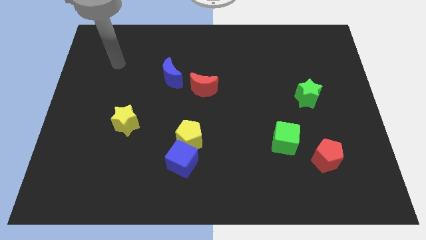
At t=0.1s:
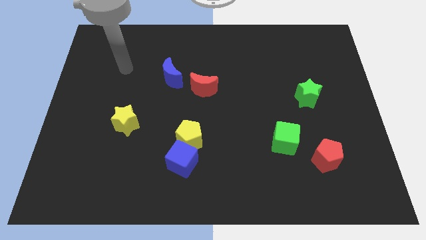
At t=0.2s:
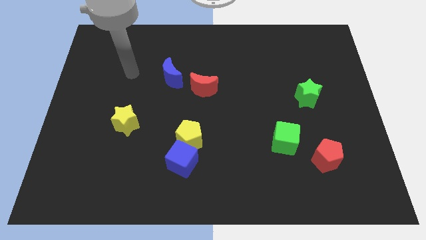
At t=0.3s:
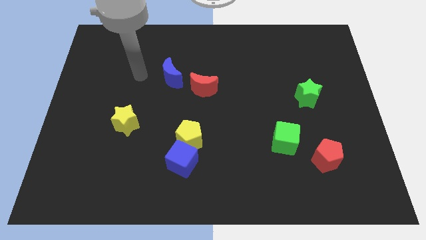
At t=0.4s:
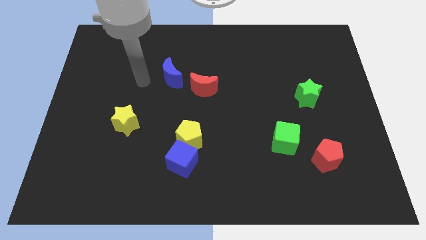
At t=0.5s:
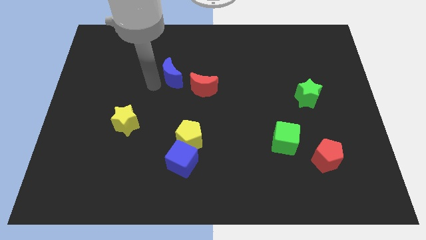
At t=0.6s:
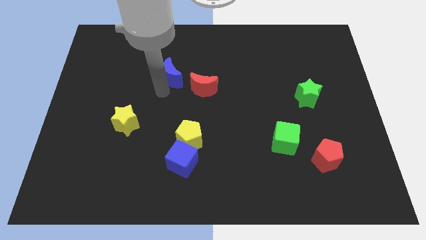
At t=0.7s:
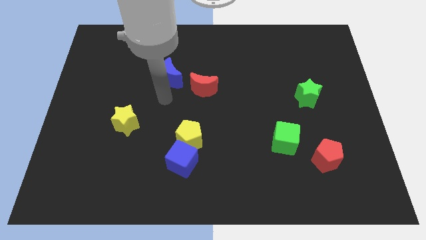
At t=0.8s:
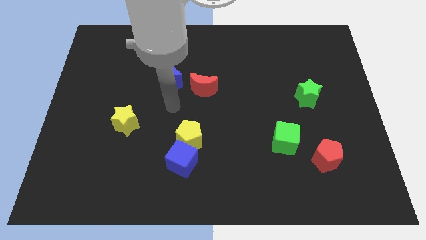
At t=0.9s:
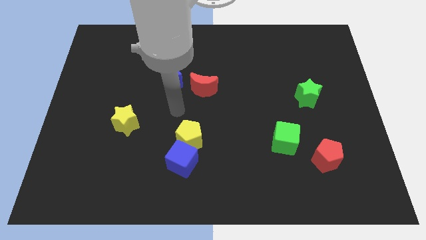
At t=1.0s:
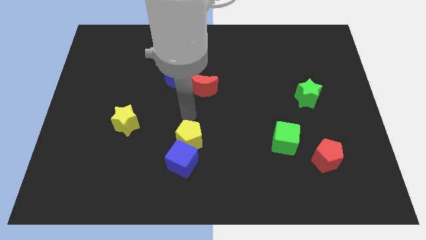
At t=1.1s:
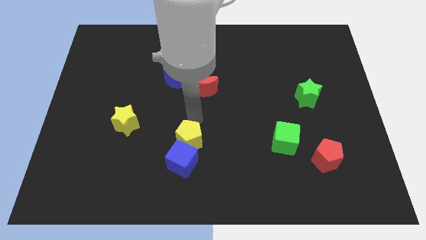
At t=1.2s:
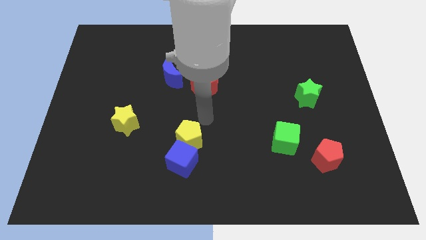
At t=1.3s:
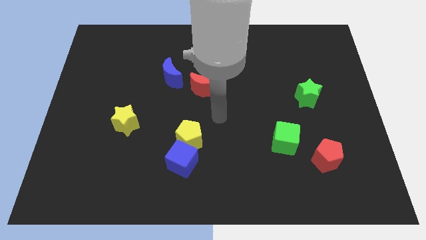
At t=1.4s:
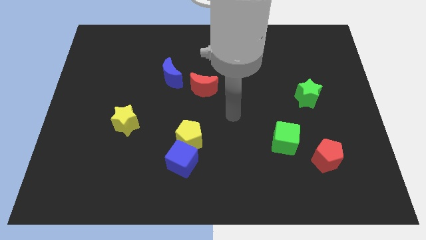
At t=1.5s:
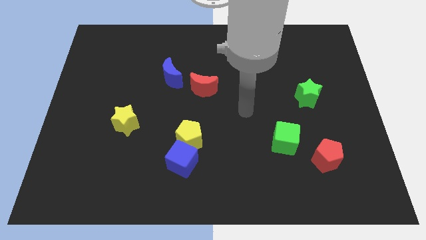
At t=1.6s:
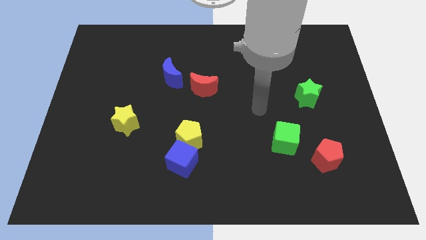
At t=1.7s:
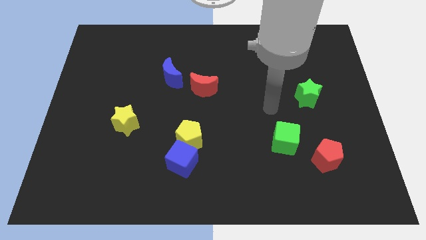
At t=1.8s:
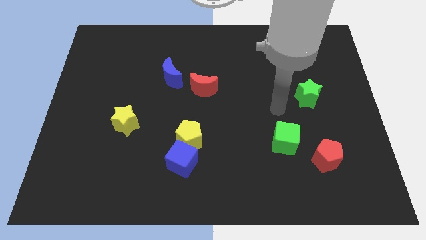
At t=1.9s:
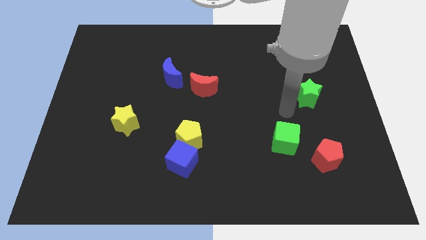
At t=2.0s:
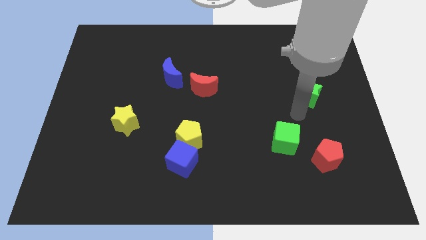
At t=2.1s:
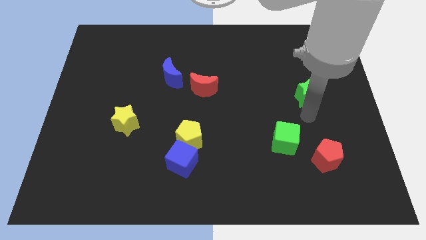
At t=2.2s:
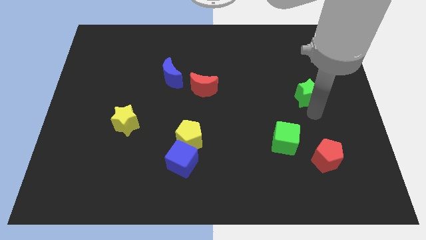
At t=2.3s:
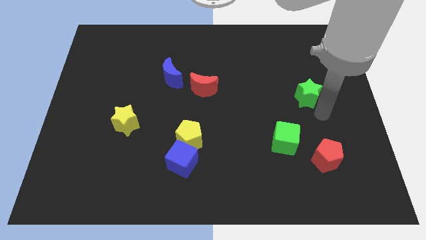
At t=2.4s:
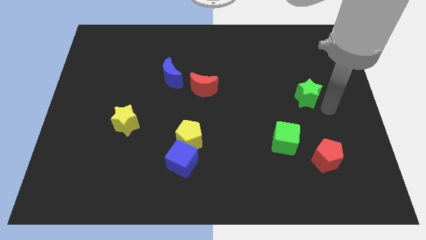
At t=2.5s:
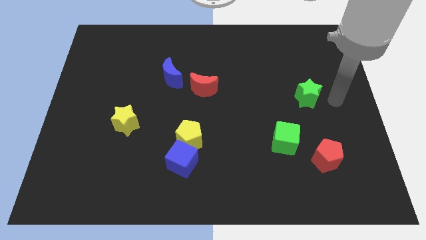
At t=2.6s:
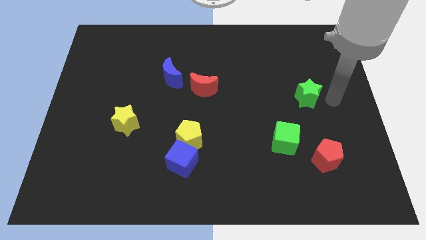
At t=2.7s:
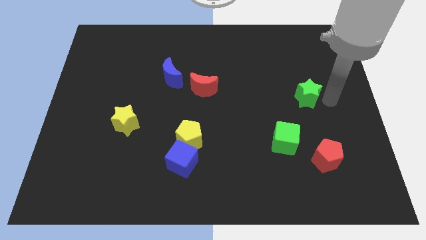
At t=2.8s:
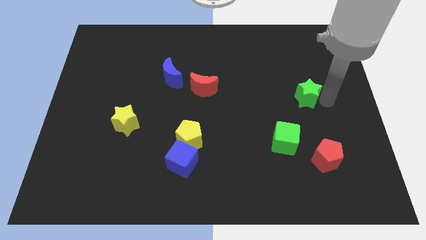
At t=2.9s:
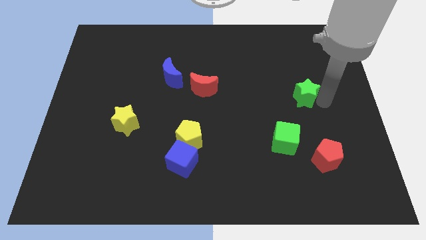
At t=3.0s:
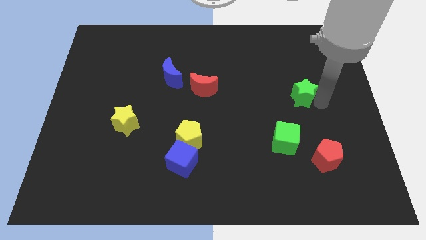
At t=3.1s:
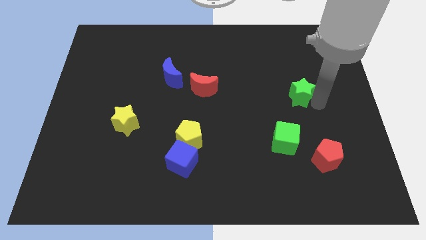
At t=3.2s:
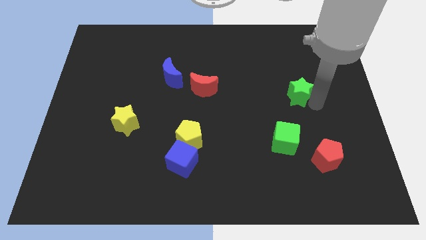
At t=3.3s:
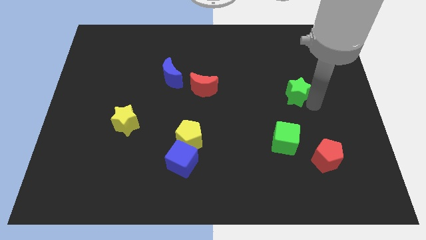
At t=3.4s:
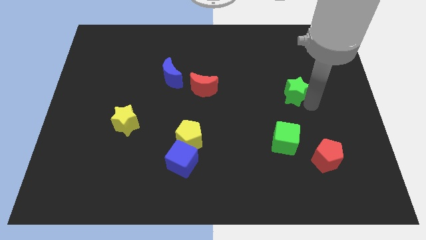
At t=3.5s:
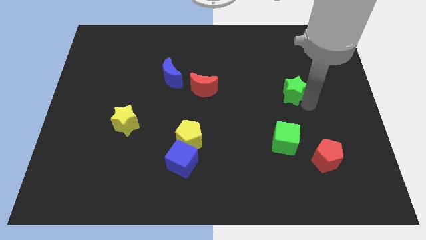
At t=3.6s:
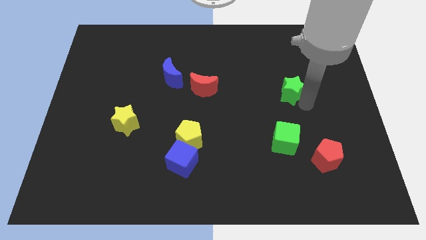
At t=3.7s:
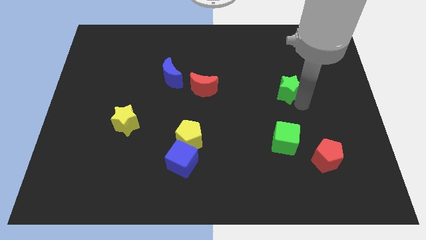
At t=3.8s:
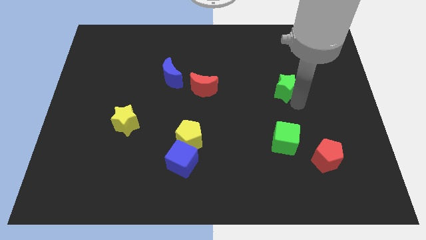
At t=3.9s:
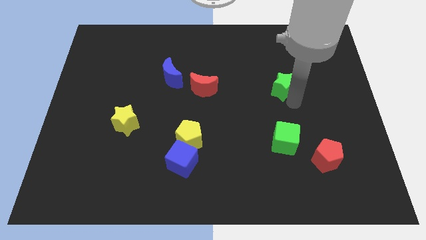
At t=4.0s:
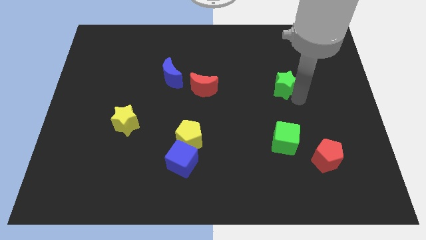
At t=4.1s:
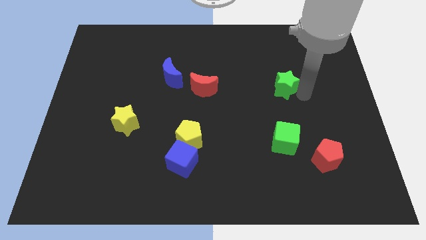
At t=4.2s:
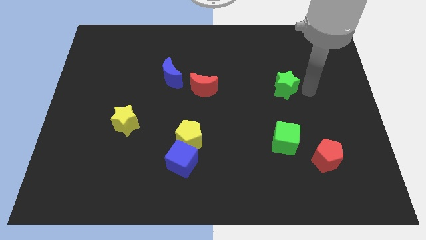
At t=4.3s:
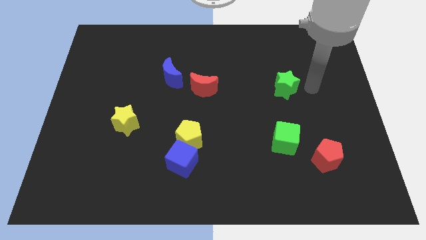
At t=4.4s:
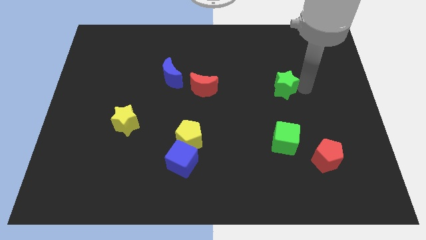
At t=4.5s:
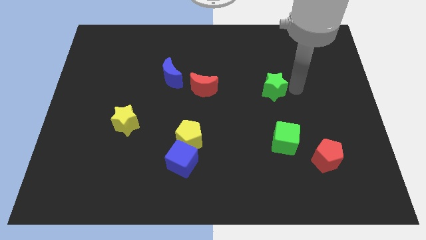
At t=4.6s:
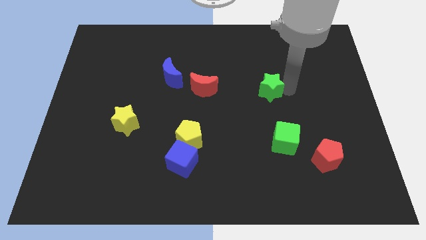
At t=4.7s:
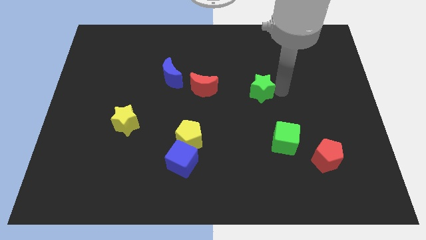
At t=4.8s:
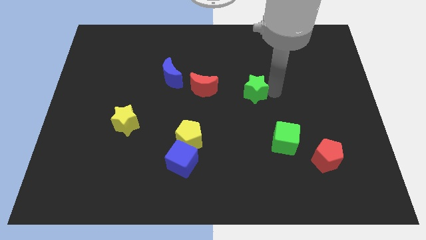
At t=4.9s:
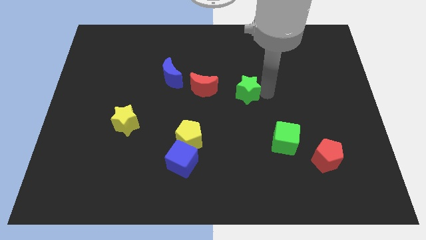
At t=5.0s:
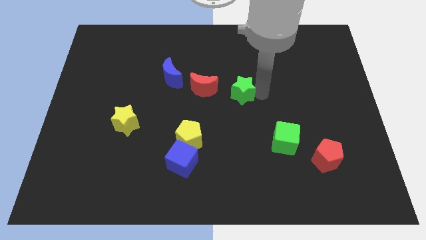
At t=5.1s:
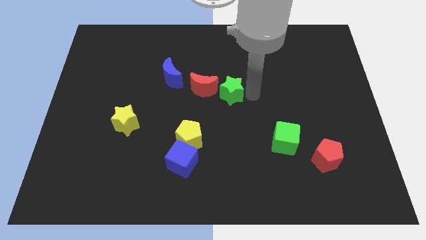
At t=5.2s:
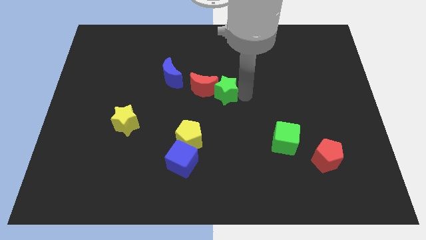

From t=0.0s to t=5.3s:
slide the green star towards the red moon

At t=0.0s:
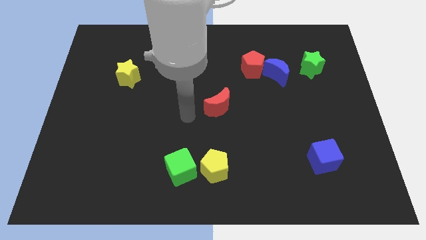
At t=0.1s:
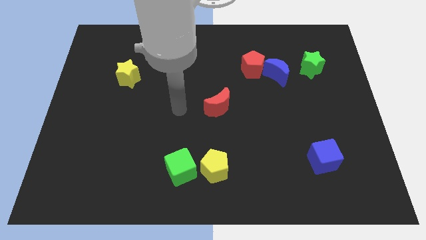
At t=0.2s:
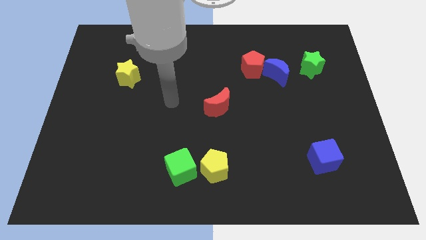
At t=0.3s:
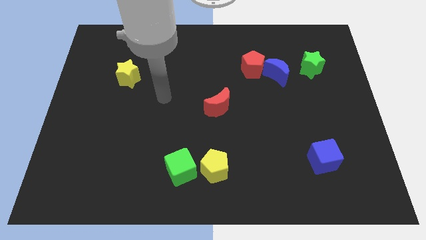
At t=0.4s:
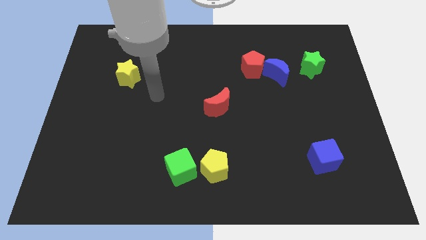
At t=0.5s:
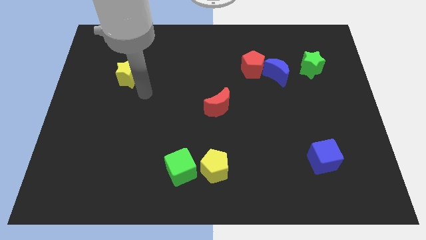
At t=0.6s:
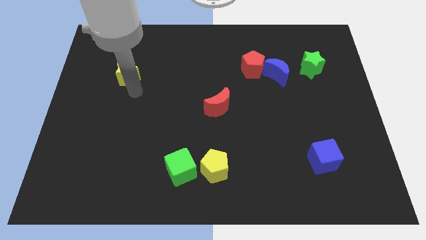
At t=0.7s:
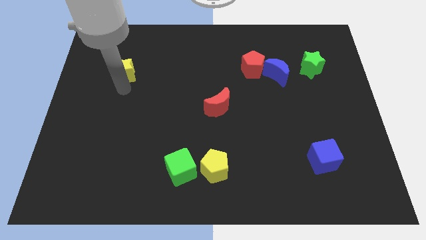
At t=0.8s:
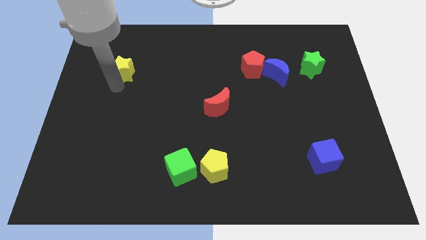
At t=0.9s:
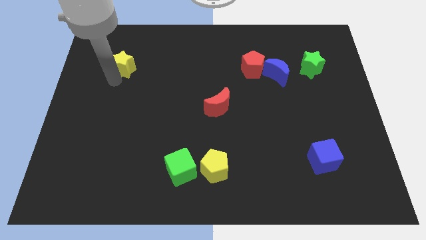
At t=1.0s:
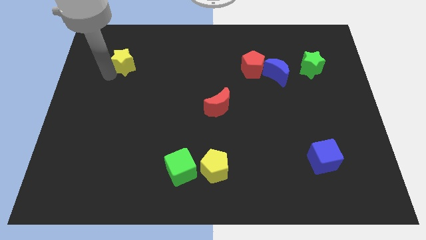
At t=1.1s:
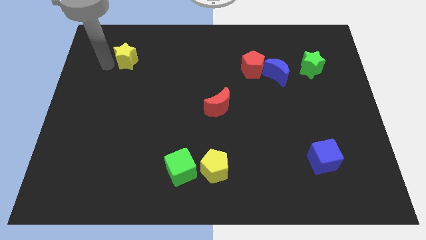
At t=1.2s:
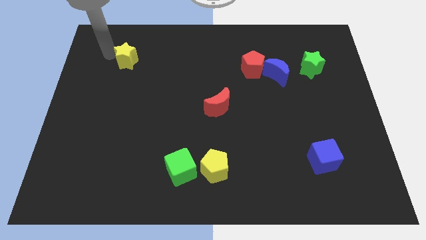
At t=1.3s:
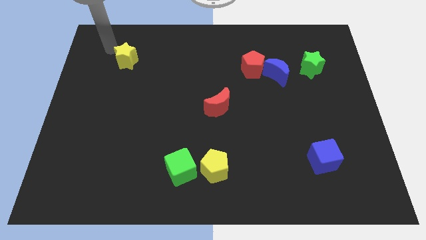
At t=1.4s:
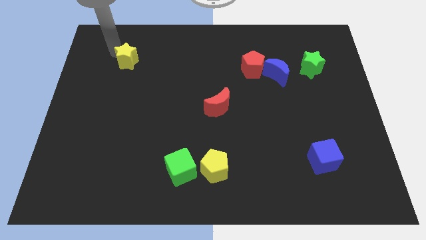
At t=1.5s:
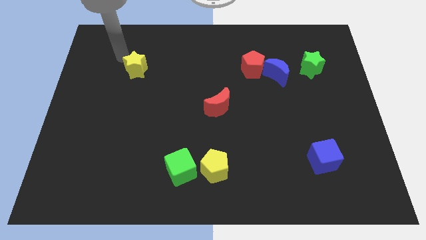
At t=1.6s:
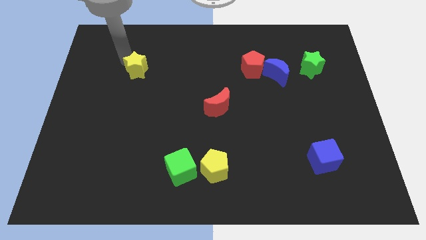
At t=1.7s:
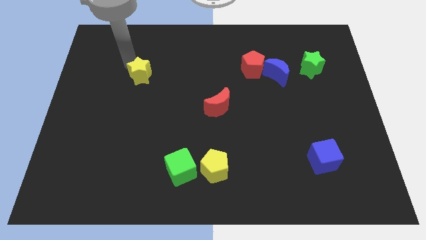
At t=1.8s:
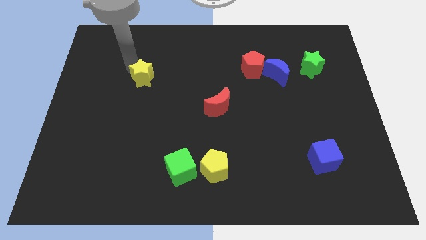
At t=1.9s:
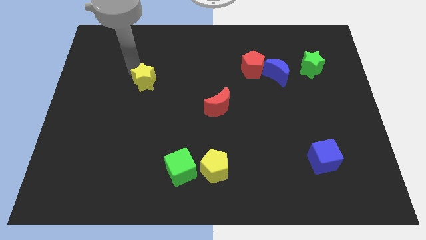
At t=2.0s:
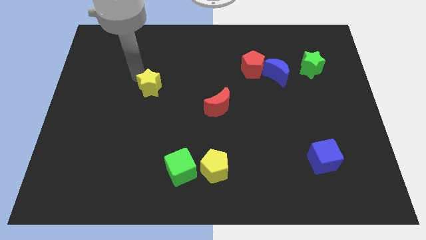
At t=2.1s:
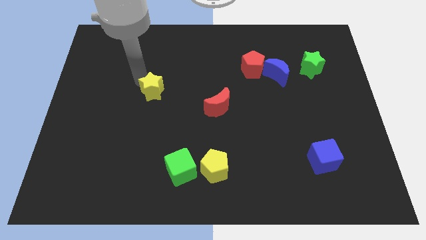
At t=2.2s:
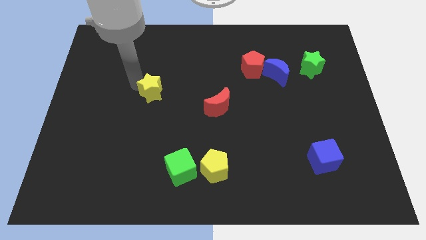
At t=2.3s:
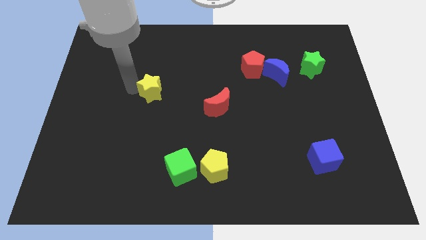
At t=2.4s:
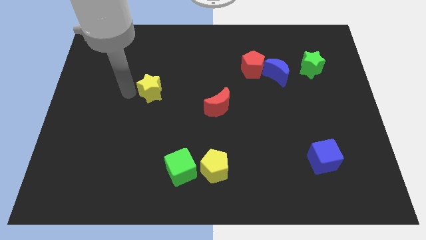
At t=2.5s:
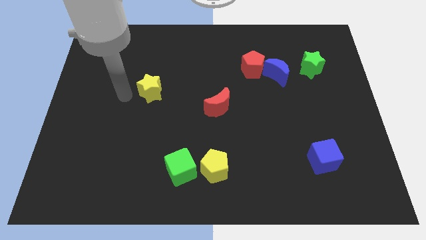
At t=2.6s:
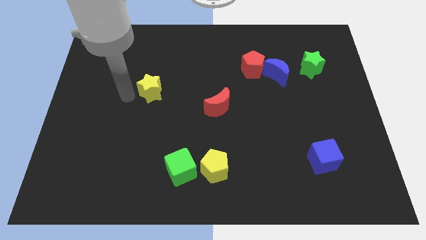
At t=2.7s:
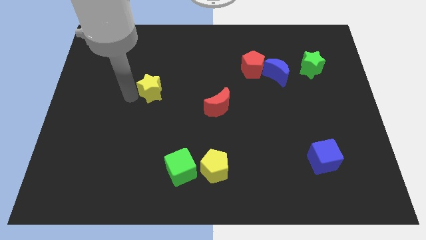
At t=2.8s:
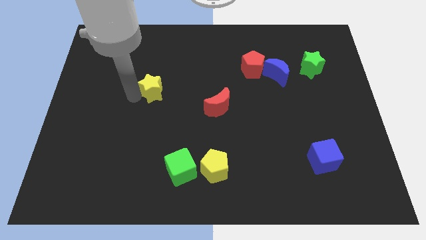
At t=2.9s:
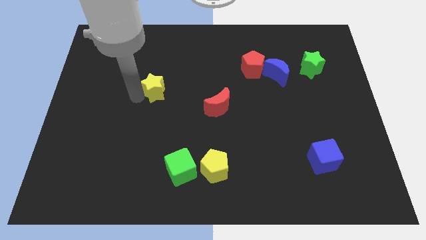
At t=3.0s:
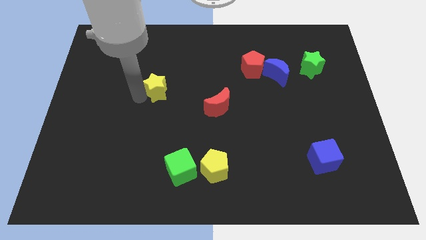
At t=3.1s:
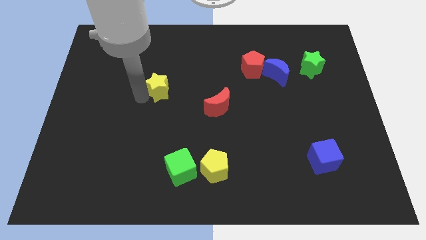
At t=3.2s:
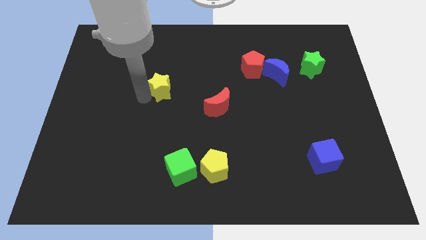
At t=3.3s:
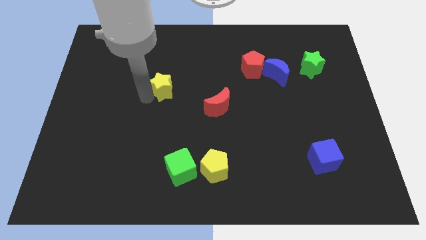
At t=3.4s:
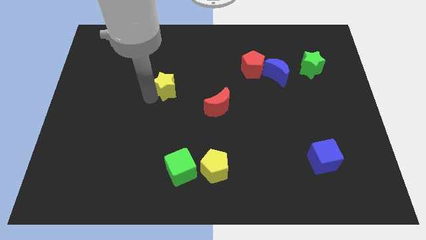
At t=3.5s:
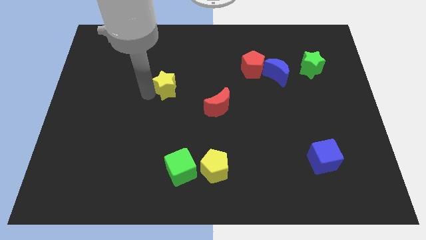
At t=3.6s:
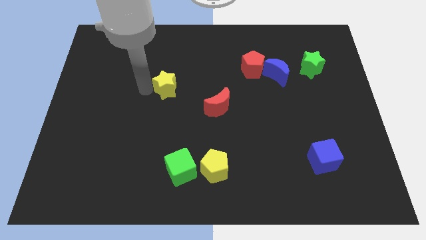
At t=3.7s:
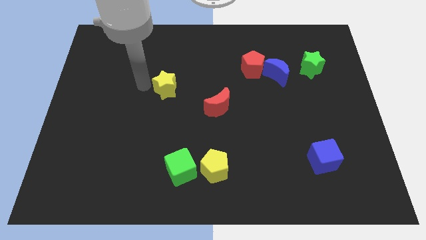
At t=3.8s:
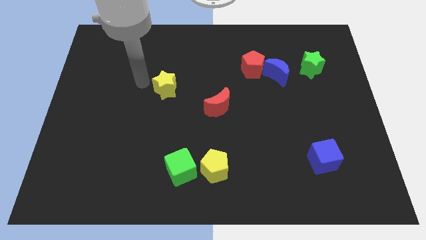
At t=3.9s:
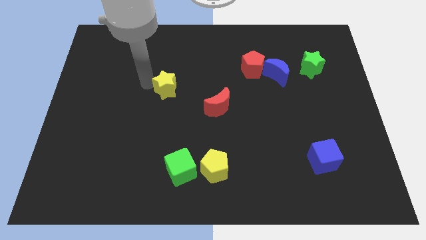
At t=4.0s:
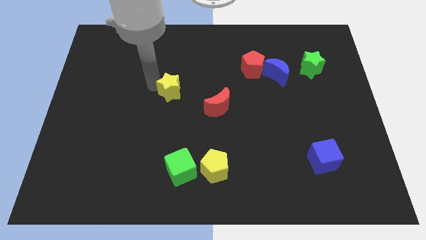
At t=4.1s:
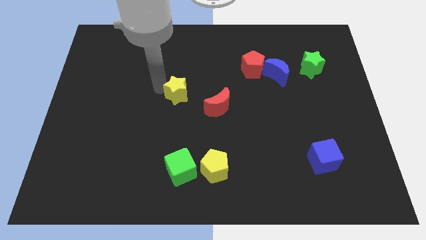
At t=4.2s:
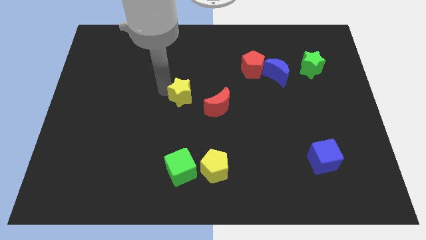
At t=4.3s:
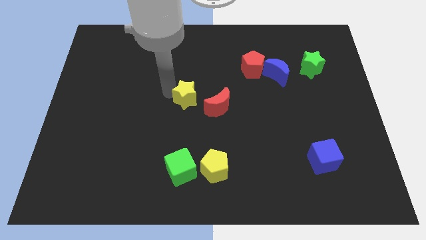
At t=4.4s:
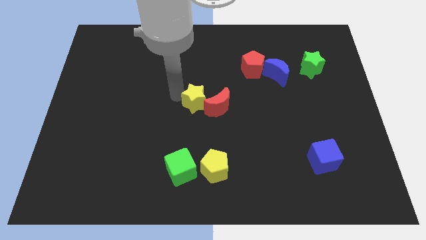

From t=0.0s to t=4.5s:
slide the yellow star next to the red moon
